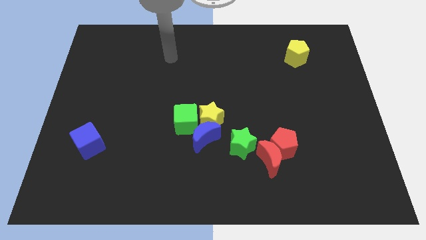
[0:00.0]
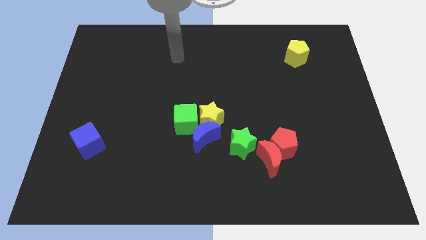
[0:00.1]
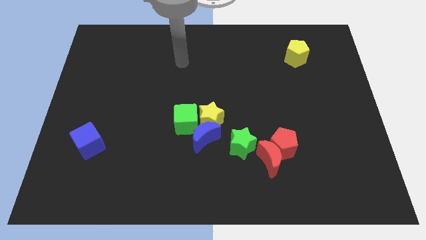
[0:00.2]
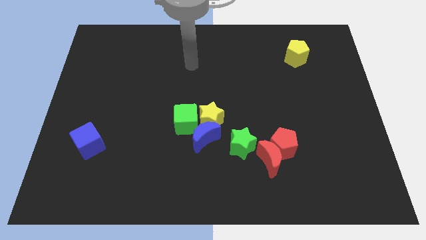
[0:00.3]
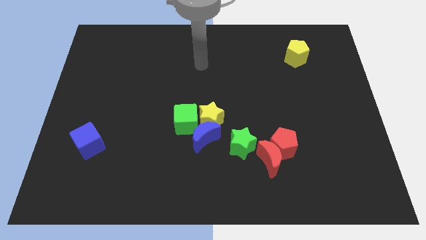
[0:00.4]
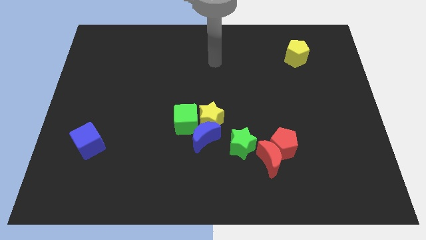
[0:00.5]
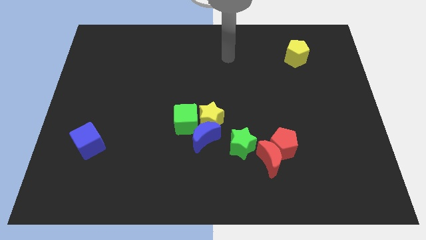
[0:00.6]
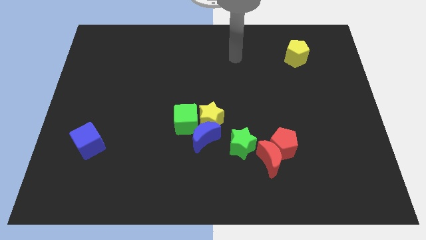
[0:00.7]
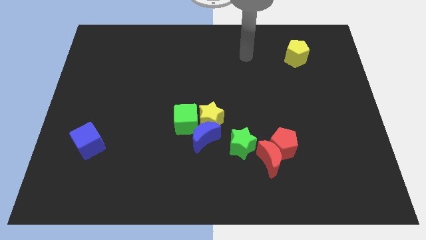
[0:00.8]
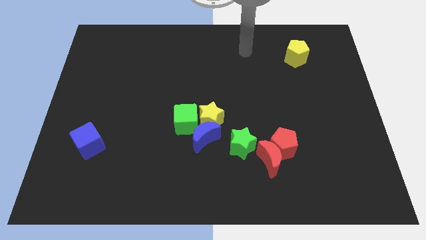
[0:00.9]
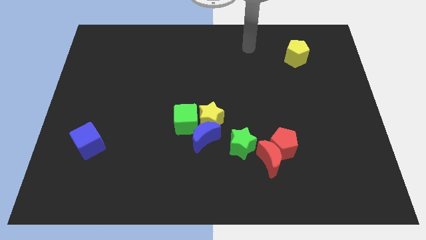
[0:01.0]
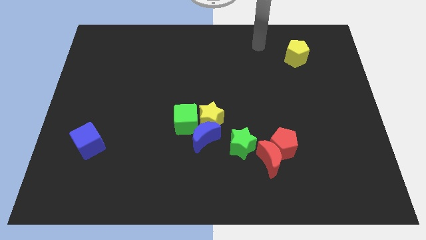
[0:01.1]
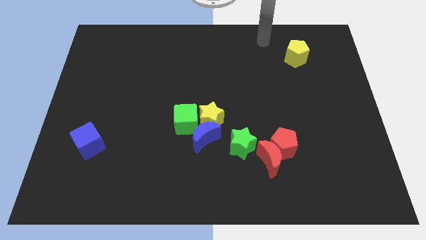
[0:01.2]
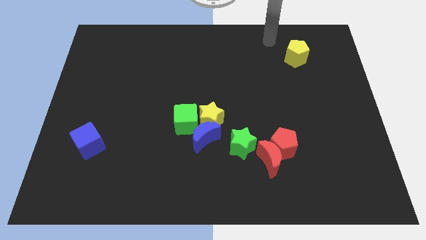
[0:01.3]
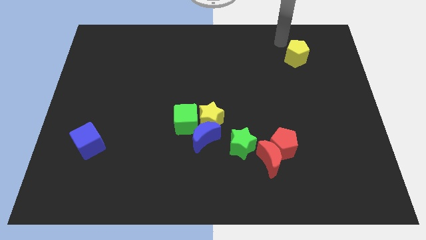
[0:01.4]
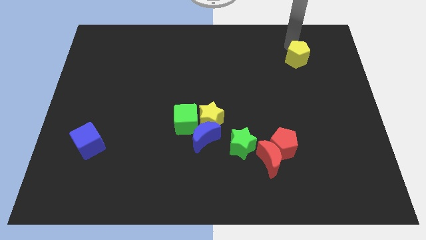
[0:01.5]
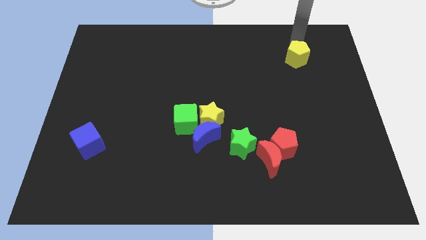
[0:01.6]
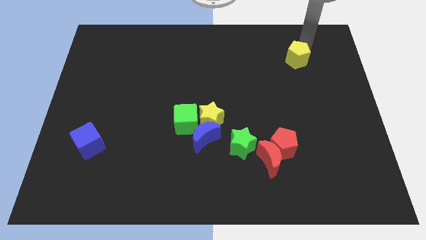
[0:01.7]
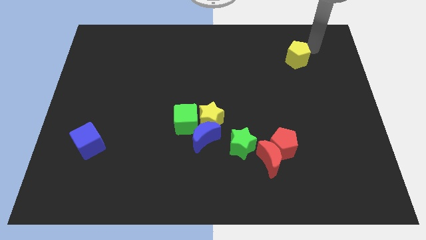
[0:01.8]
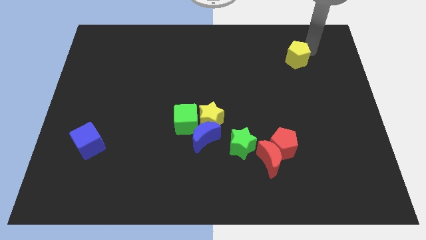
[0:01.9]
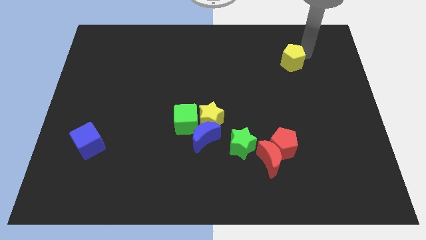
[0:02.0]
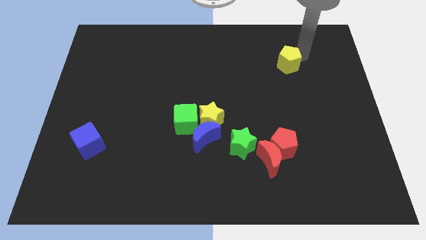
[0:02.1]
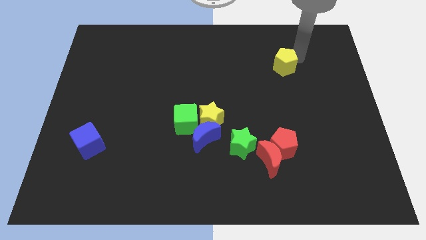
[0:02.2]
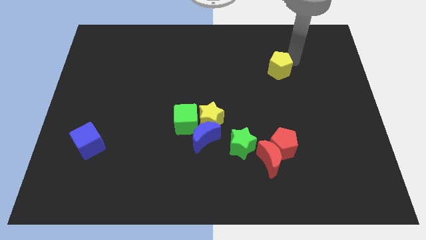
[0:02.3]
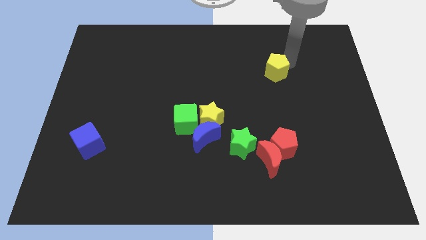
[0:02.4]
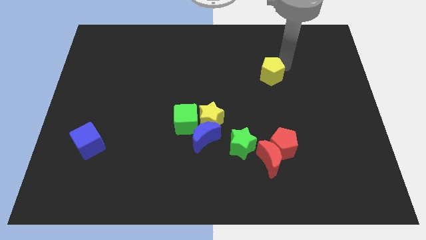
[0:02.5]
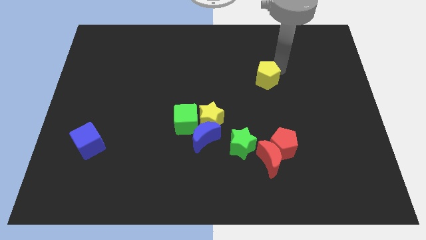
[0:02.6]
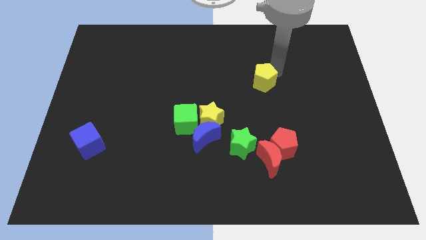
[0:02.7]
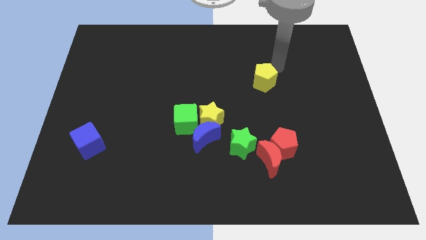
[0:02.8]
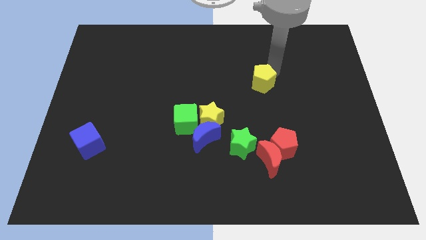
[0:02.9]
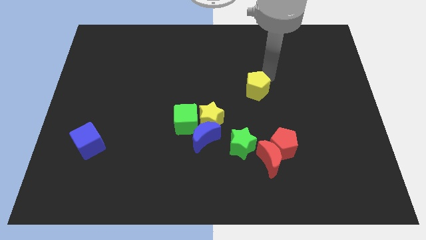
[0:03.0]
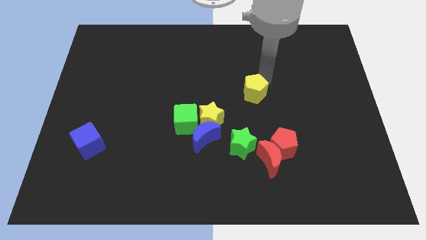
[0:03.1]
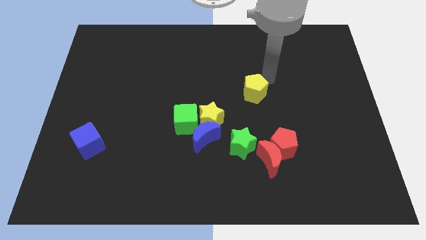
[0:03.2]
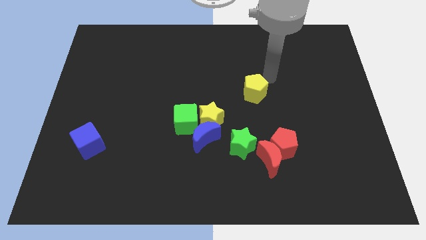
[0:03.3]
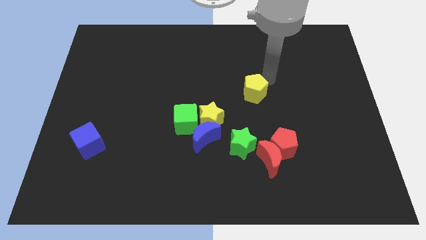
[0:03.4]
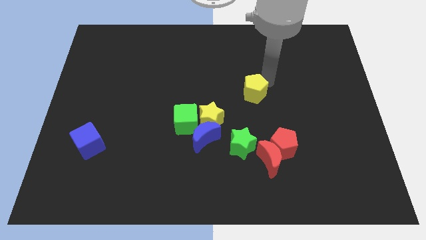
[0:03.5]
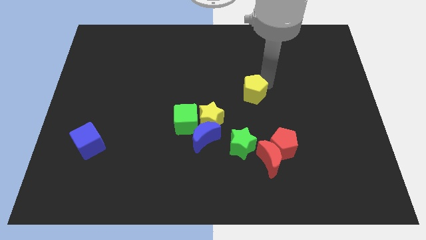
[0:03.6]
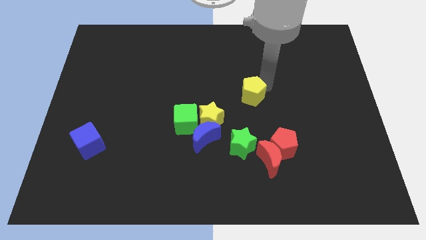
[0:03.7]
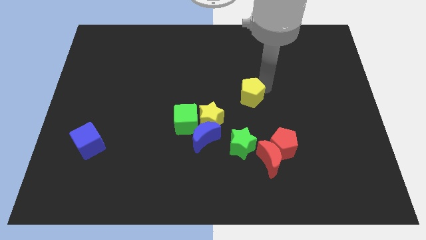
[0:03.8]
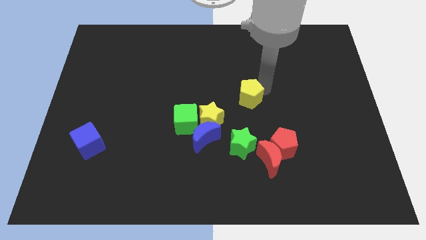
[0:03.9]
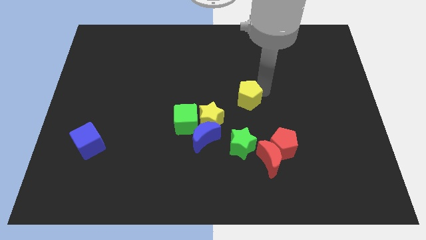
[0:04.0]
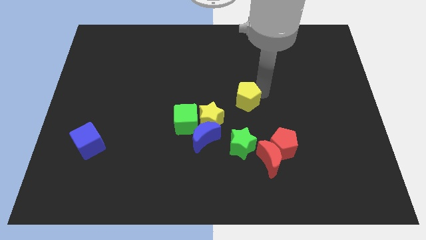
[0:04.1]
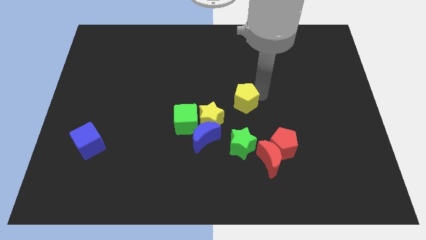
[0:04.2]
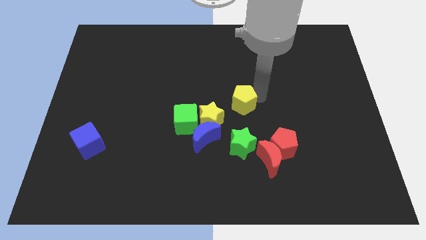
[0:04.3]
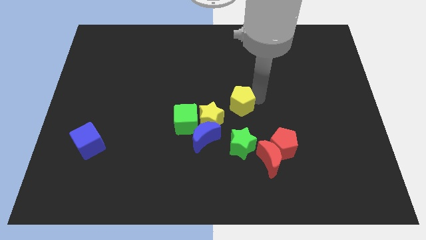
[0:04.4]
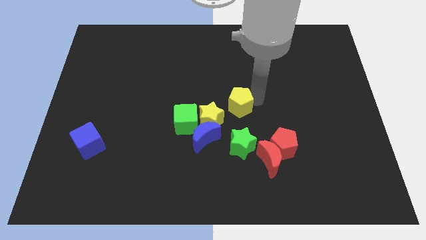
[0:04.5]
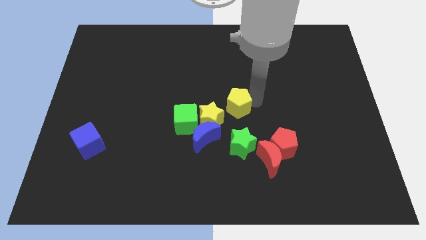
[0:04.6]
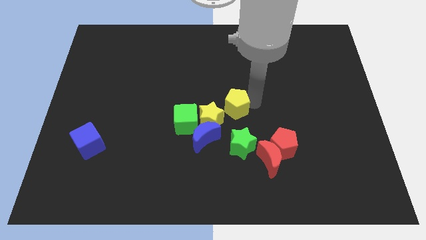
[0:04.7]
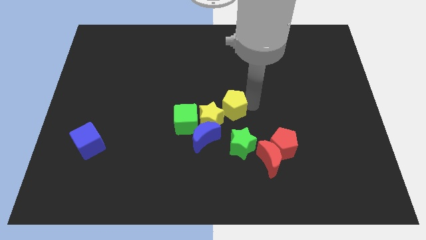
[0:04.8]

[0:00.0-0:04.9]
put the yellow pentagon close to the yellow star

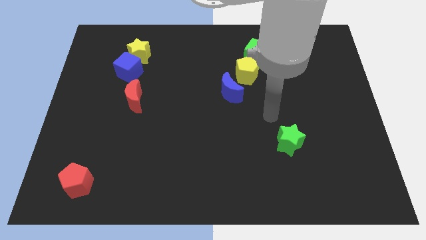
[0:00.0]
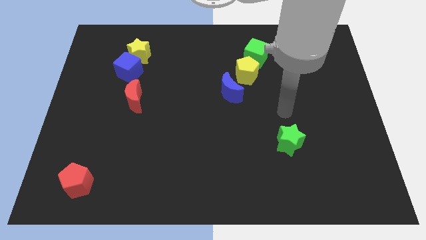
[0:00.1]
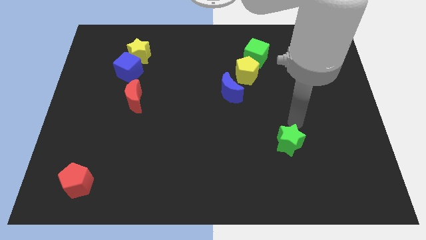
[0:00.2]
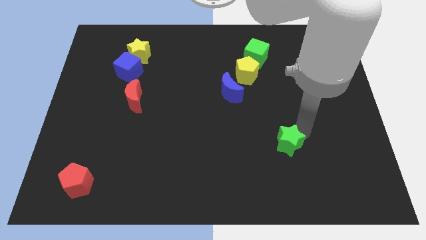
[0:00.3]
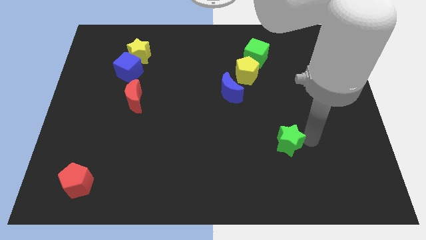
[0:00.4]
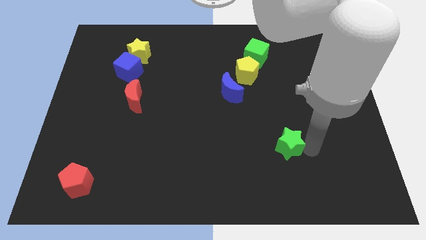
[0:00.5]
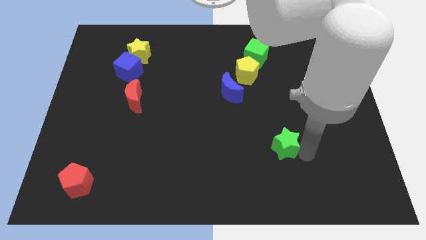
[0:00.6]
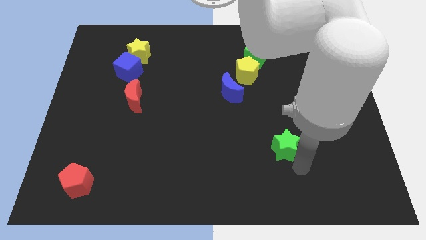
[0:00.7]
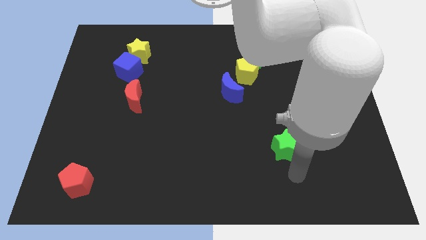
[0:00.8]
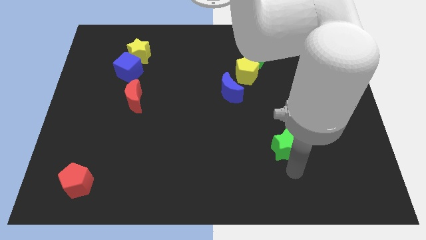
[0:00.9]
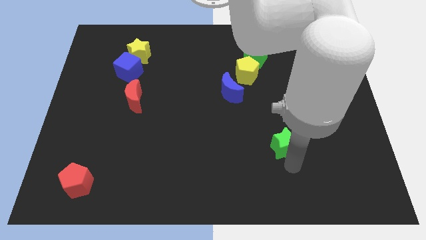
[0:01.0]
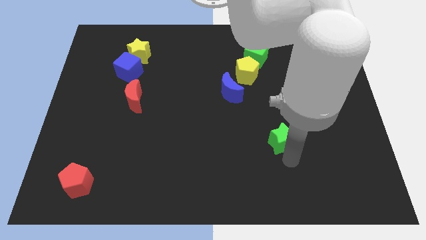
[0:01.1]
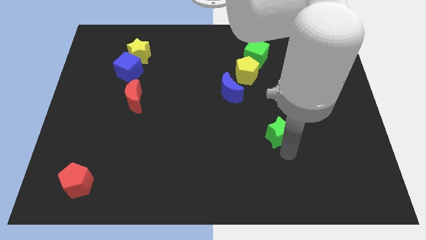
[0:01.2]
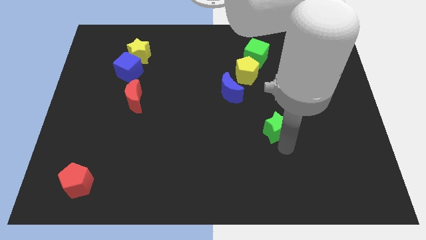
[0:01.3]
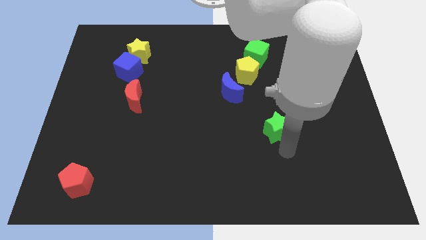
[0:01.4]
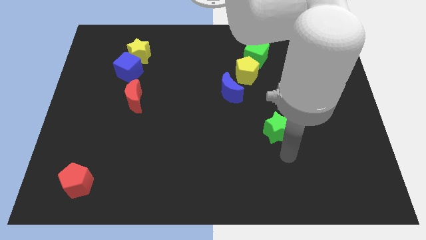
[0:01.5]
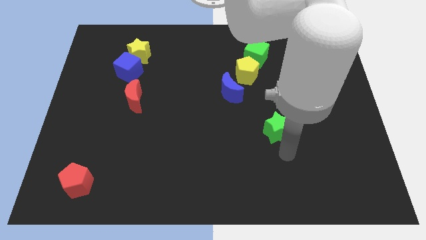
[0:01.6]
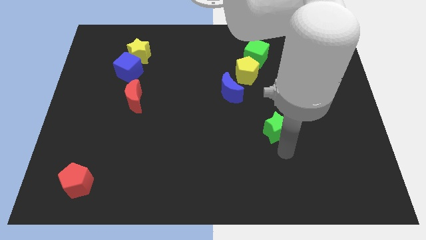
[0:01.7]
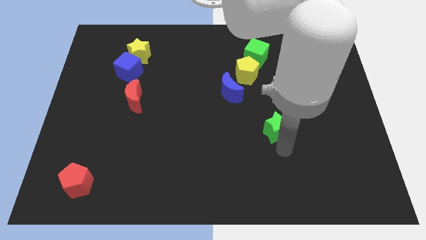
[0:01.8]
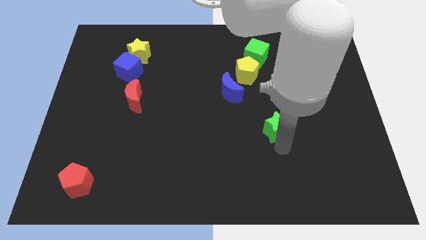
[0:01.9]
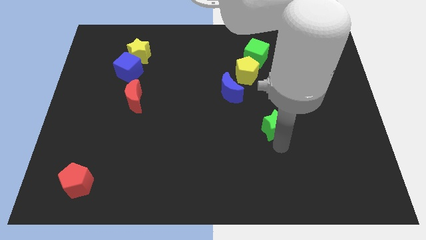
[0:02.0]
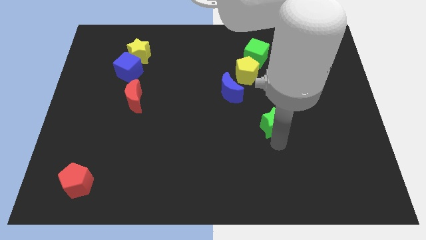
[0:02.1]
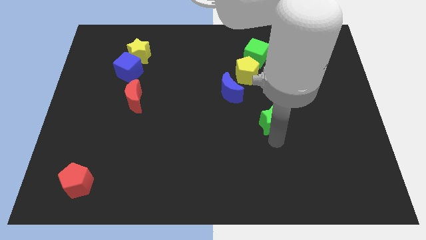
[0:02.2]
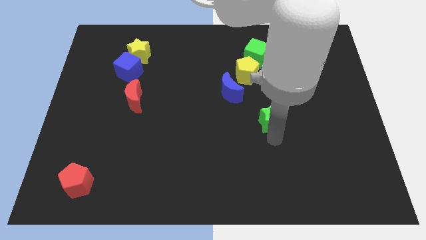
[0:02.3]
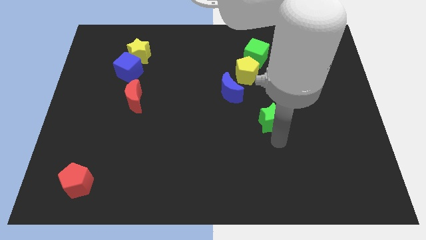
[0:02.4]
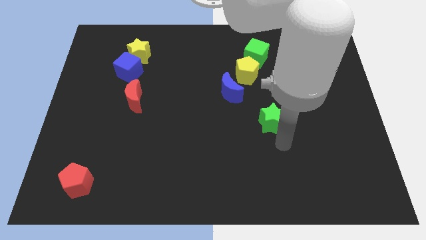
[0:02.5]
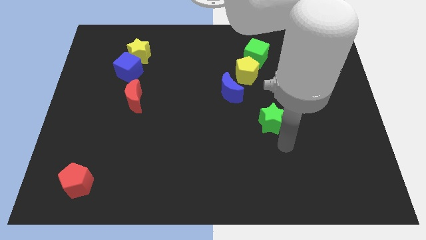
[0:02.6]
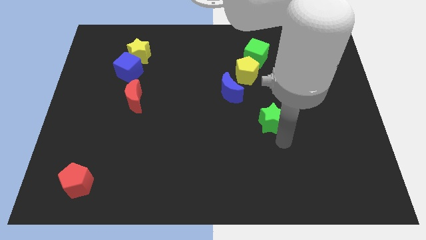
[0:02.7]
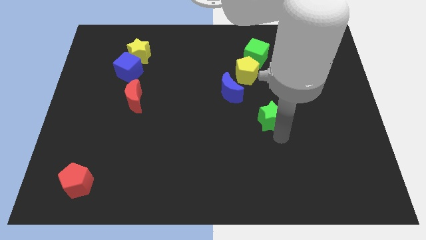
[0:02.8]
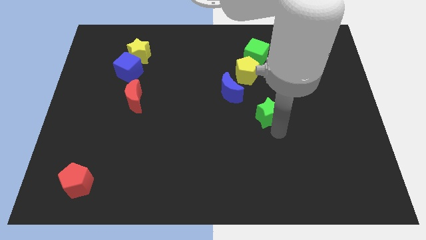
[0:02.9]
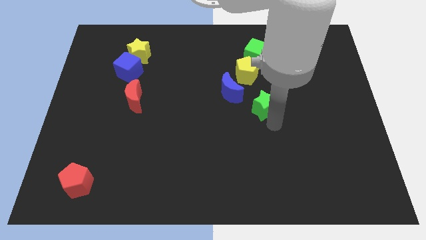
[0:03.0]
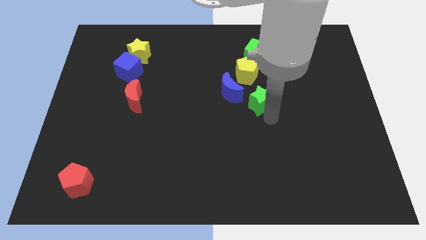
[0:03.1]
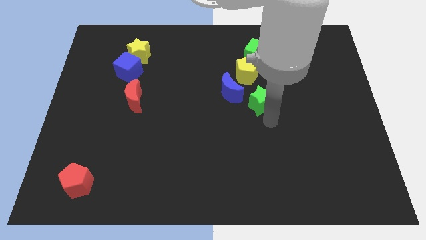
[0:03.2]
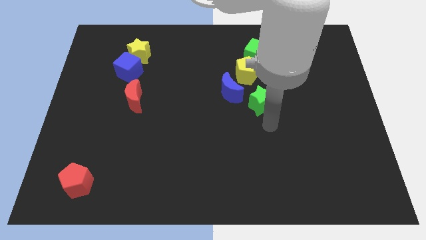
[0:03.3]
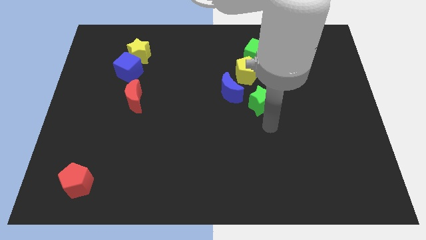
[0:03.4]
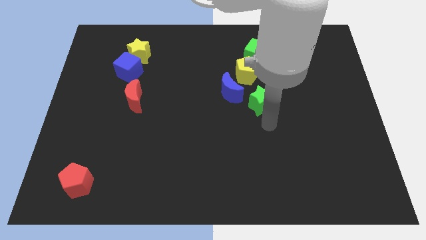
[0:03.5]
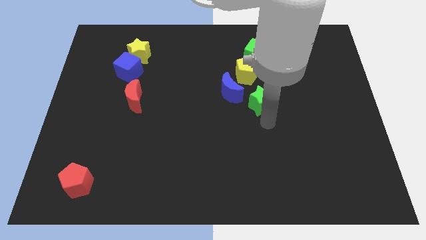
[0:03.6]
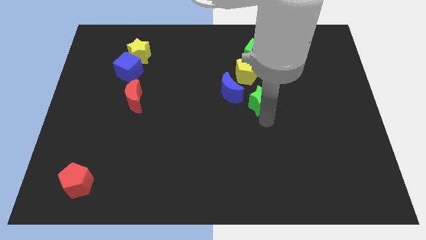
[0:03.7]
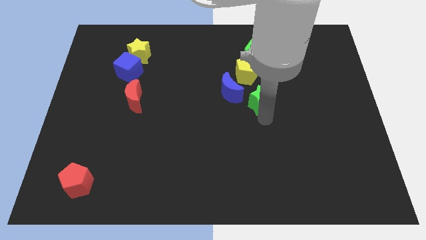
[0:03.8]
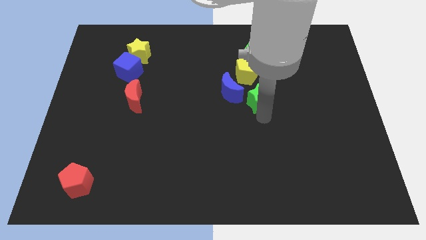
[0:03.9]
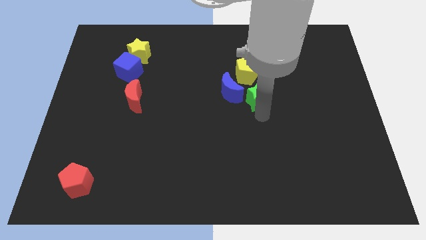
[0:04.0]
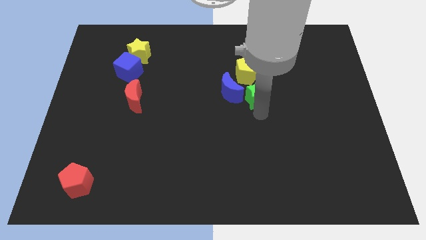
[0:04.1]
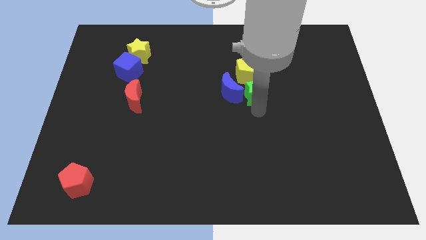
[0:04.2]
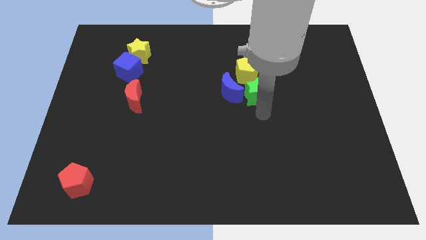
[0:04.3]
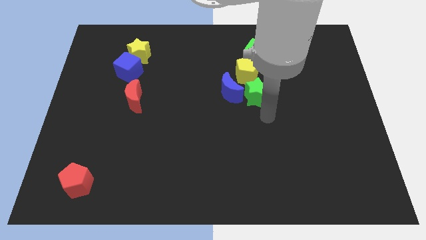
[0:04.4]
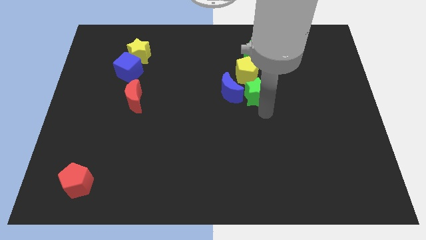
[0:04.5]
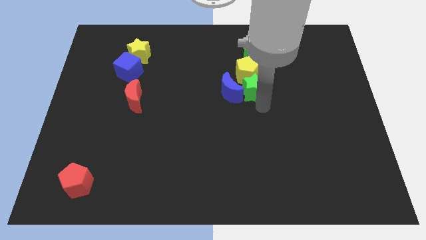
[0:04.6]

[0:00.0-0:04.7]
move the green star next to the yellow pentagon
